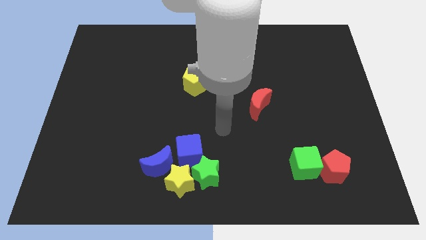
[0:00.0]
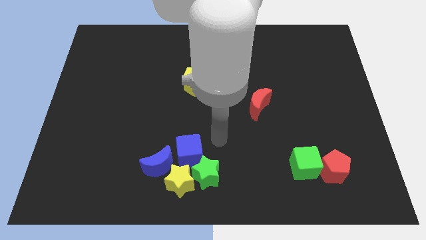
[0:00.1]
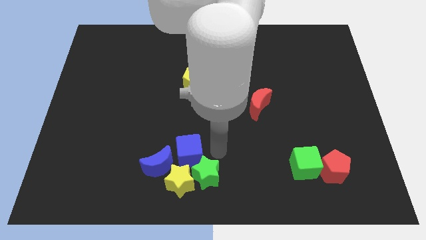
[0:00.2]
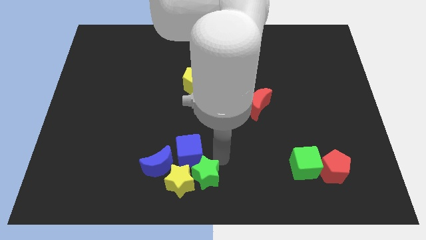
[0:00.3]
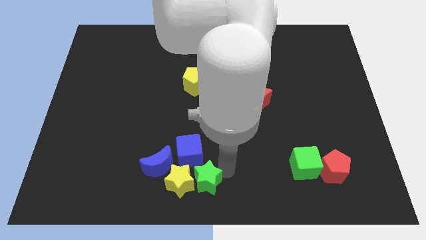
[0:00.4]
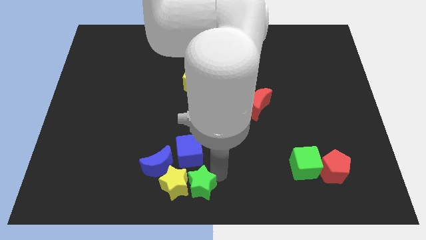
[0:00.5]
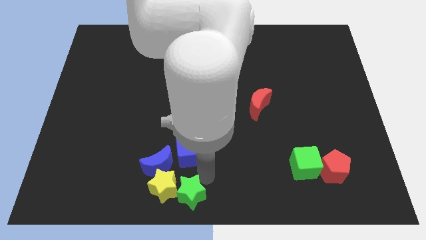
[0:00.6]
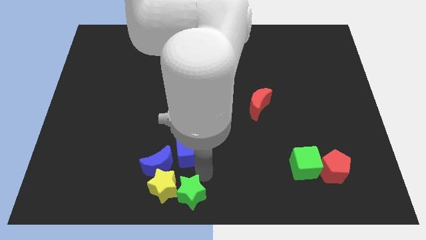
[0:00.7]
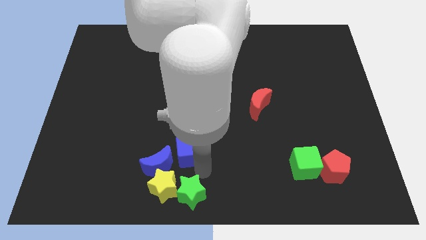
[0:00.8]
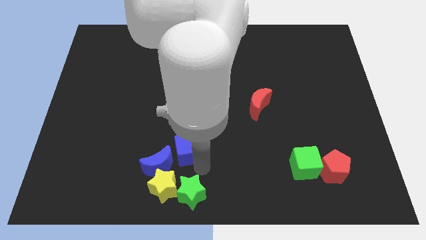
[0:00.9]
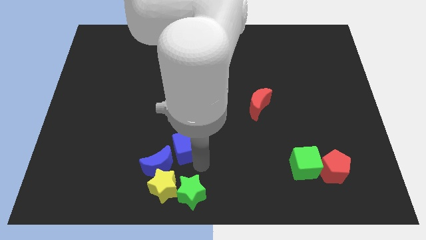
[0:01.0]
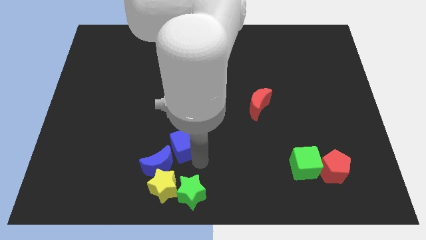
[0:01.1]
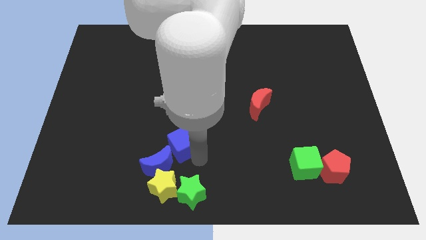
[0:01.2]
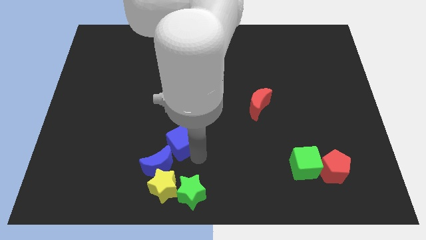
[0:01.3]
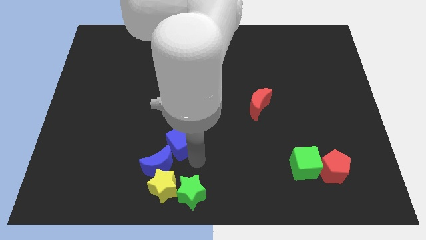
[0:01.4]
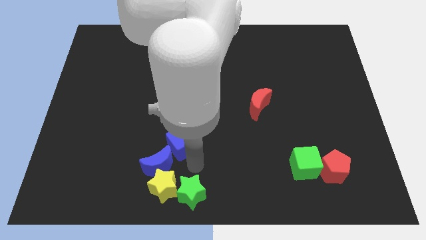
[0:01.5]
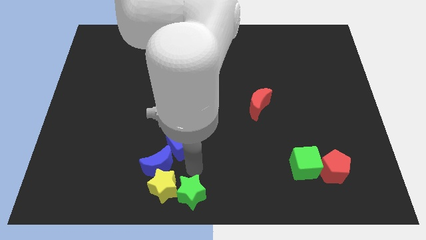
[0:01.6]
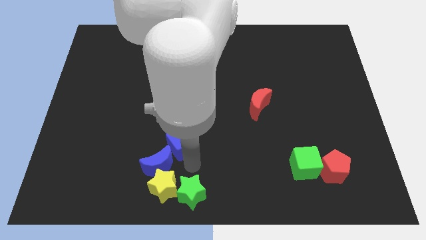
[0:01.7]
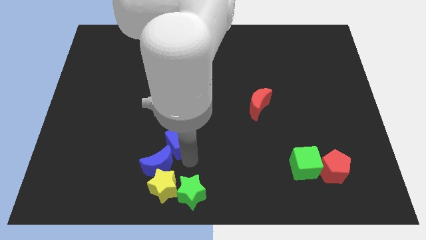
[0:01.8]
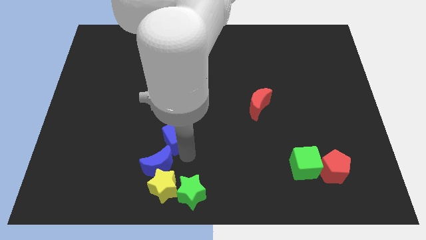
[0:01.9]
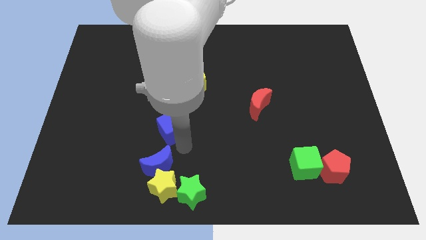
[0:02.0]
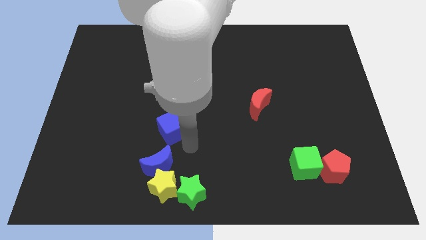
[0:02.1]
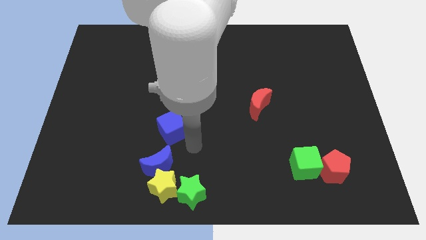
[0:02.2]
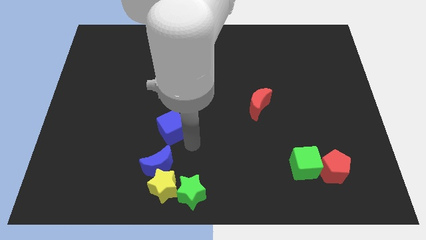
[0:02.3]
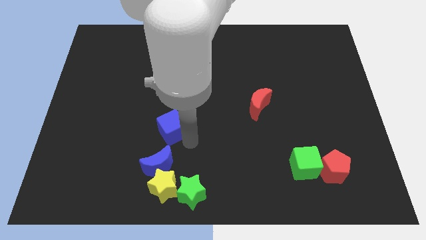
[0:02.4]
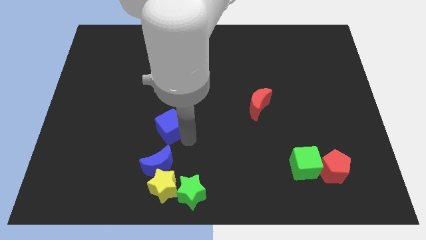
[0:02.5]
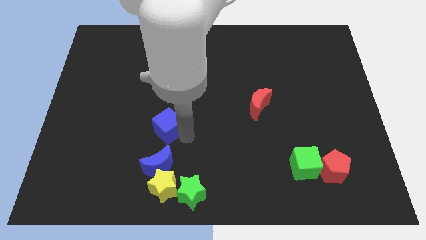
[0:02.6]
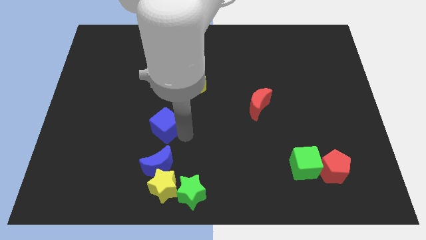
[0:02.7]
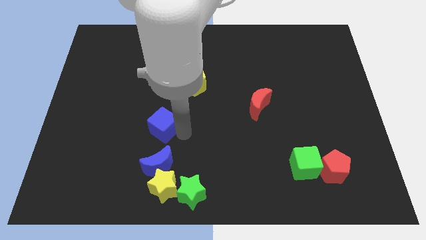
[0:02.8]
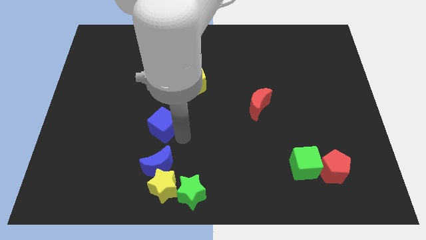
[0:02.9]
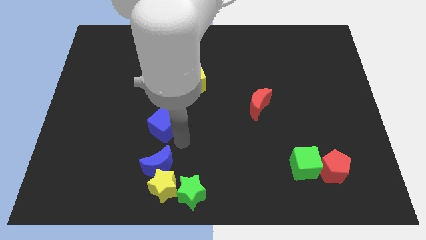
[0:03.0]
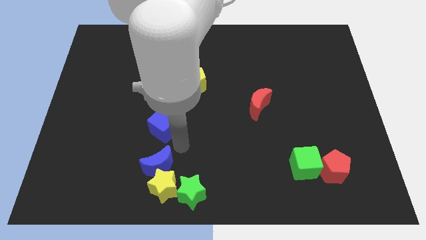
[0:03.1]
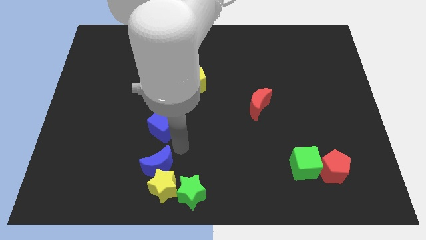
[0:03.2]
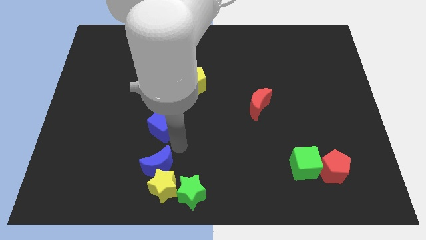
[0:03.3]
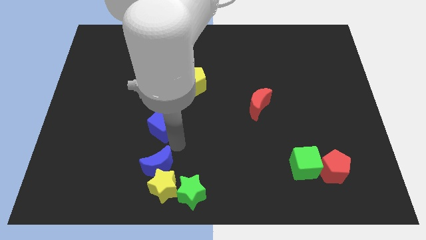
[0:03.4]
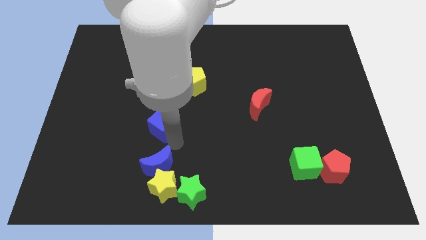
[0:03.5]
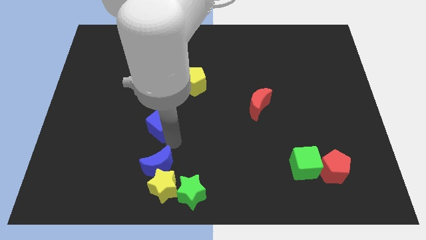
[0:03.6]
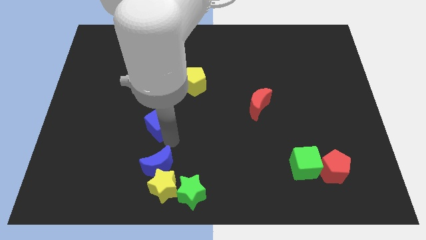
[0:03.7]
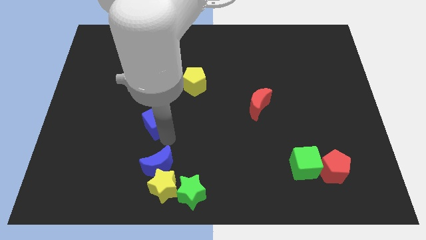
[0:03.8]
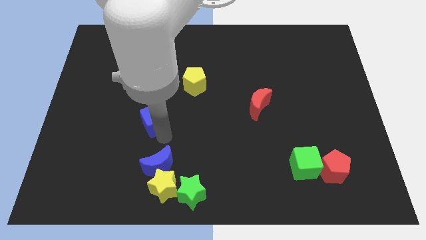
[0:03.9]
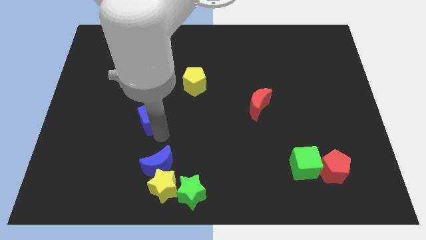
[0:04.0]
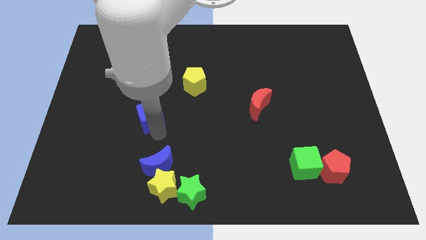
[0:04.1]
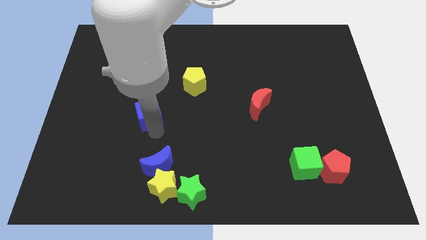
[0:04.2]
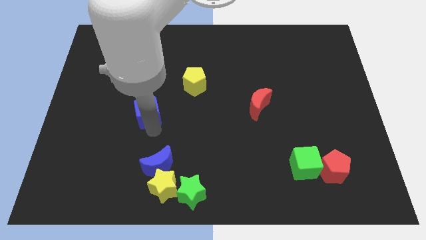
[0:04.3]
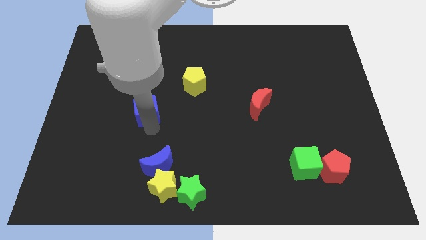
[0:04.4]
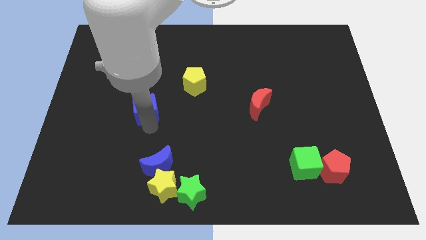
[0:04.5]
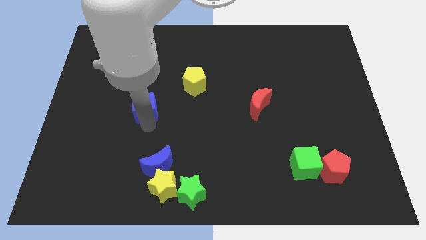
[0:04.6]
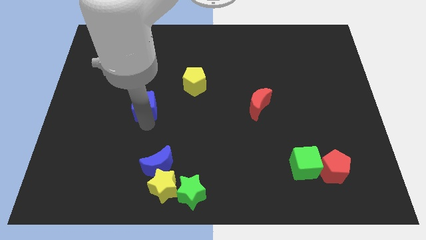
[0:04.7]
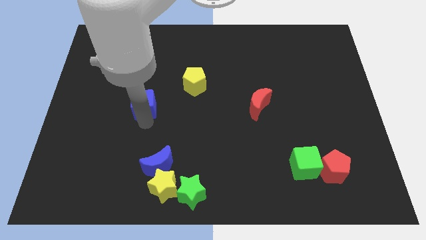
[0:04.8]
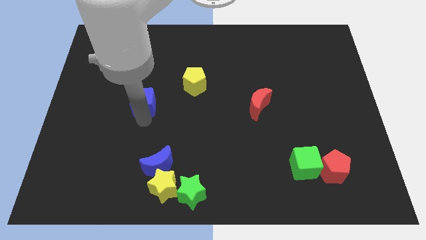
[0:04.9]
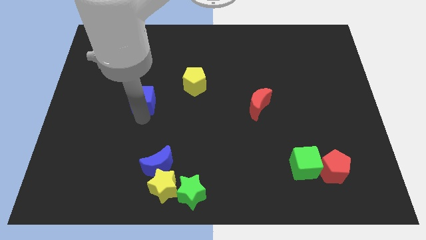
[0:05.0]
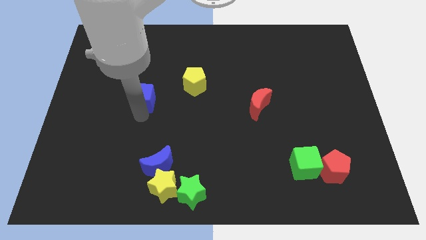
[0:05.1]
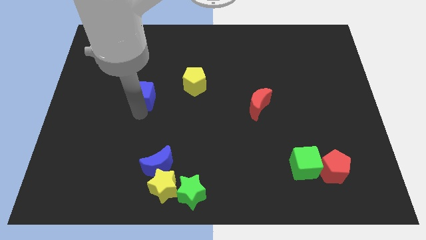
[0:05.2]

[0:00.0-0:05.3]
move the blue cube just left of the yellow pentagon
